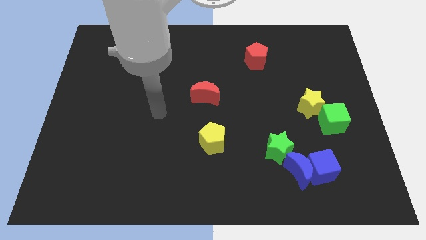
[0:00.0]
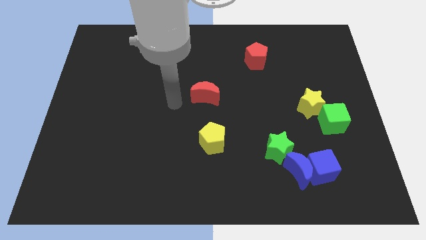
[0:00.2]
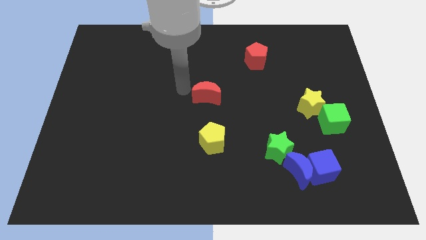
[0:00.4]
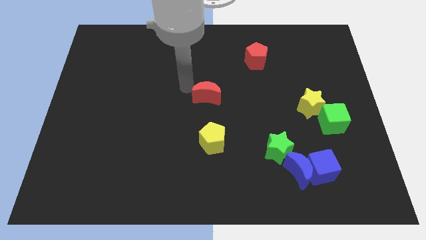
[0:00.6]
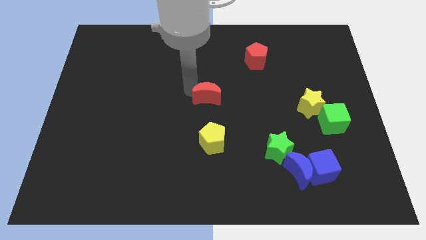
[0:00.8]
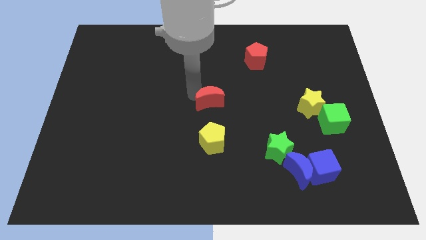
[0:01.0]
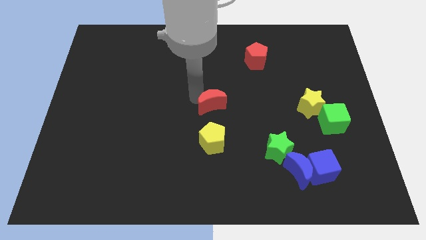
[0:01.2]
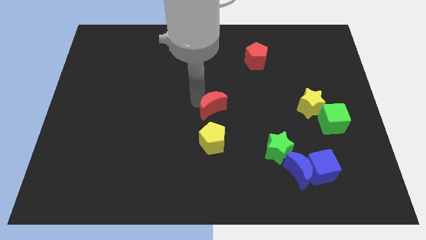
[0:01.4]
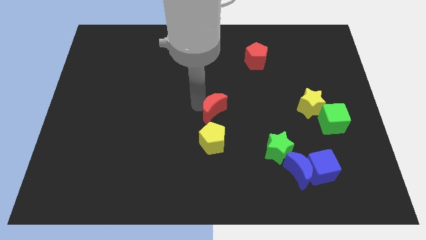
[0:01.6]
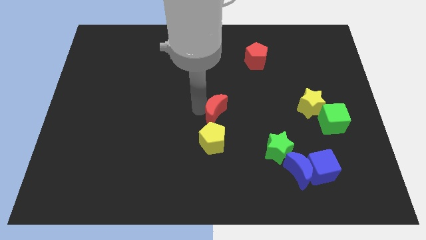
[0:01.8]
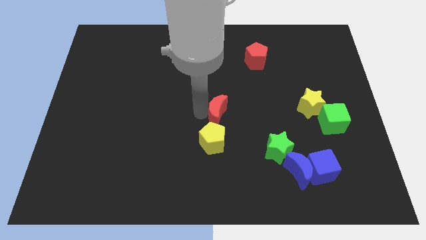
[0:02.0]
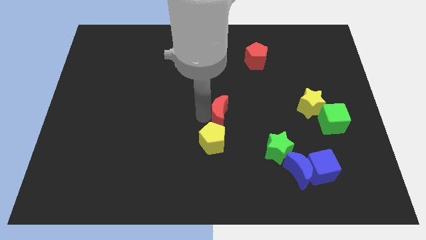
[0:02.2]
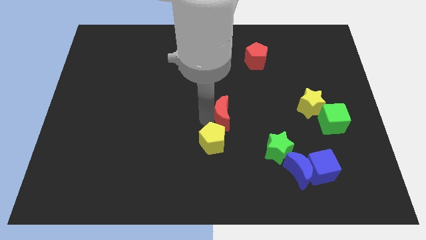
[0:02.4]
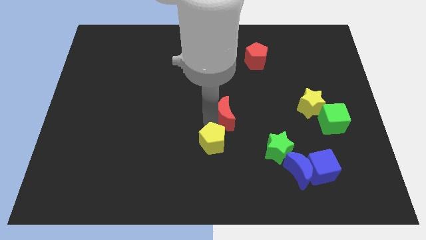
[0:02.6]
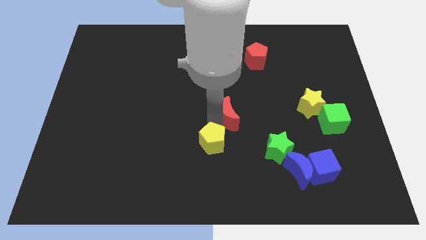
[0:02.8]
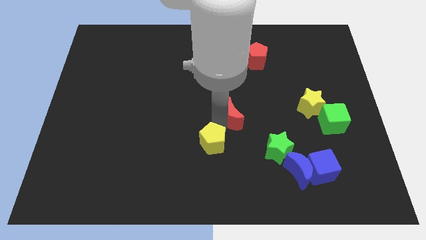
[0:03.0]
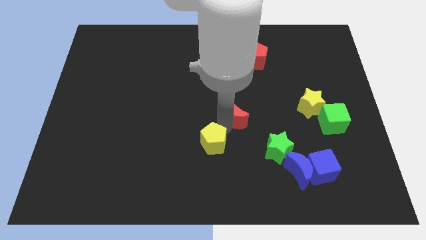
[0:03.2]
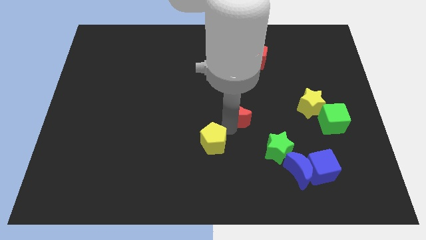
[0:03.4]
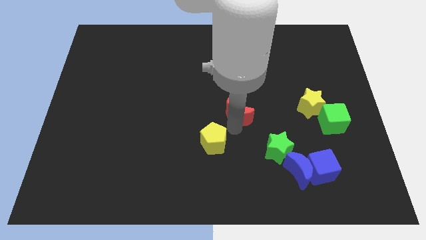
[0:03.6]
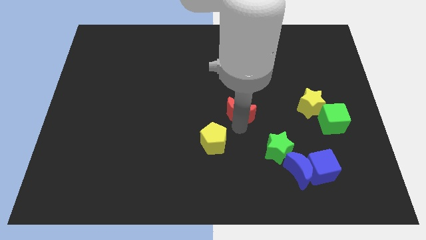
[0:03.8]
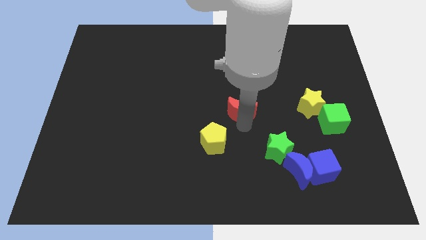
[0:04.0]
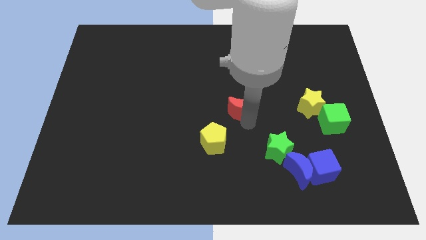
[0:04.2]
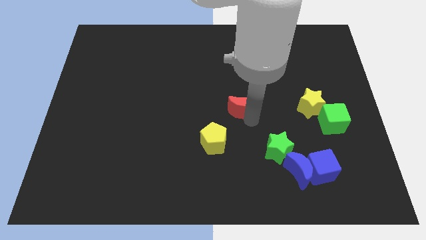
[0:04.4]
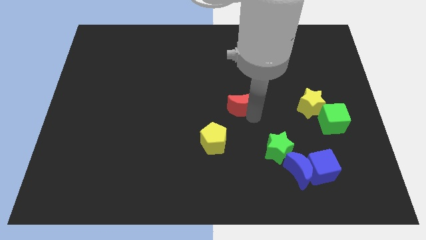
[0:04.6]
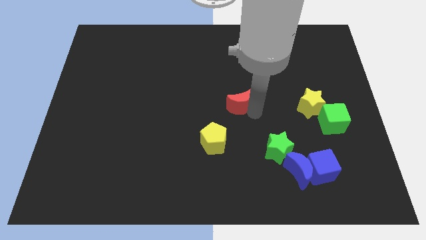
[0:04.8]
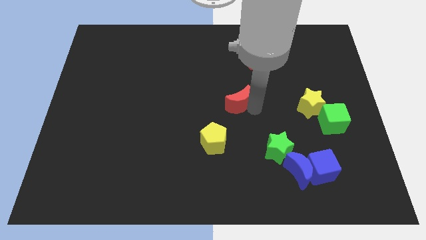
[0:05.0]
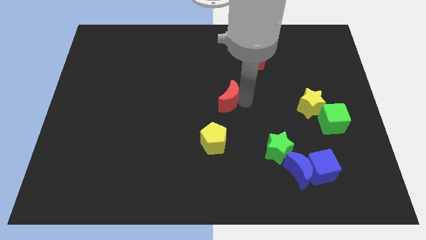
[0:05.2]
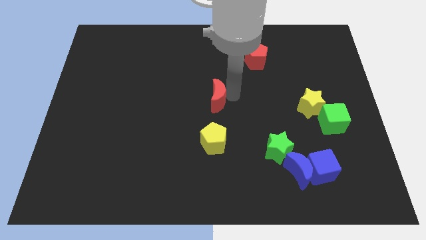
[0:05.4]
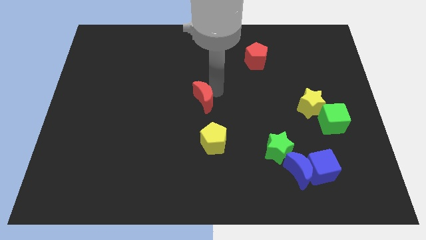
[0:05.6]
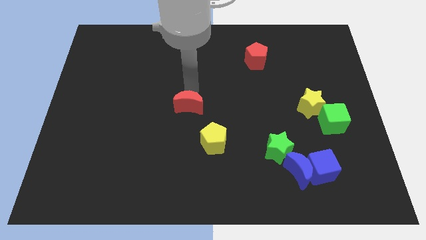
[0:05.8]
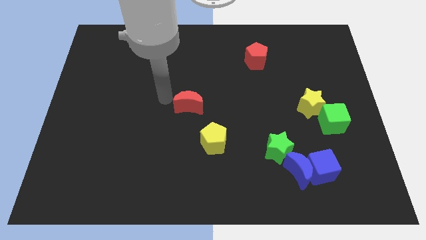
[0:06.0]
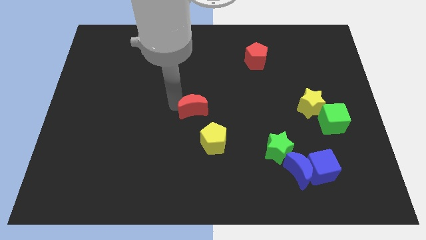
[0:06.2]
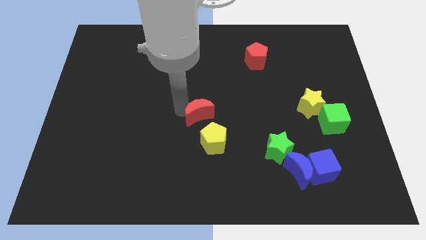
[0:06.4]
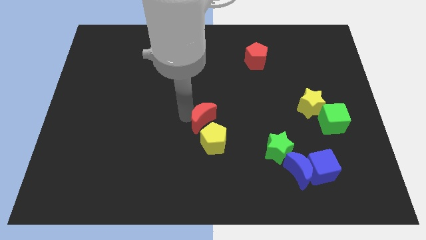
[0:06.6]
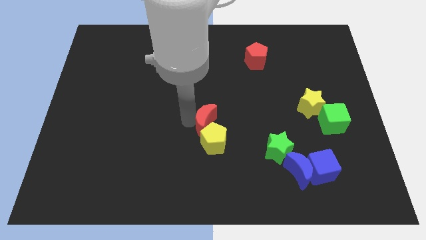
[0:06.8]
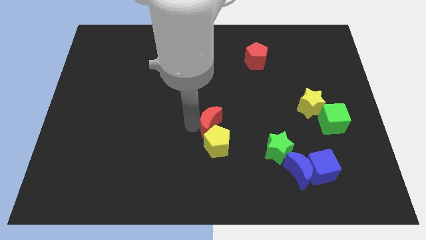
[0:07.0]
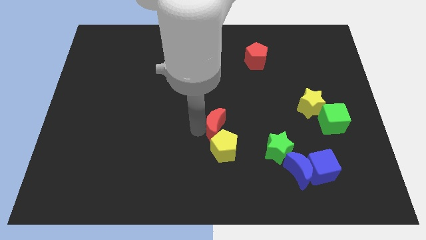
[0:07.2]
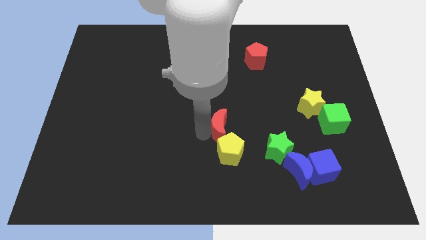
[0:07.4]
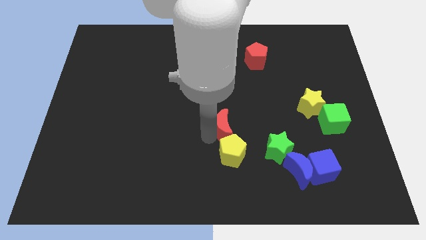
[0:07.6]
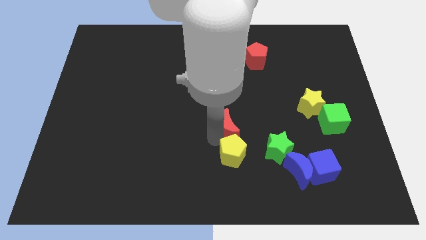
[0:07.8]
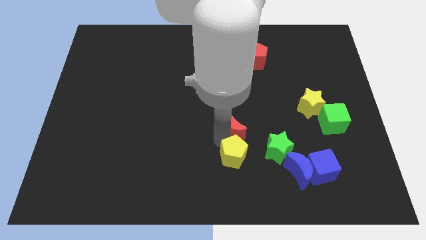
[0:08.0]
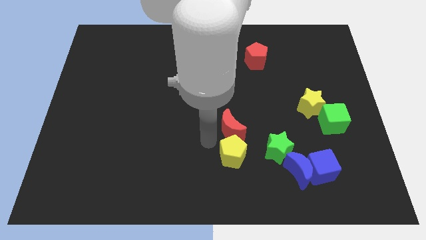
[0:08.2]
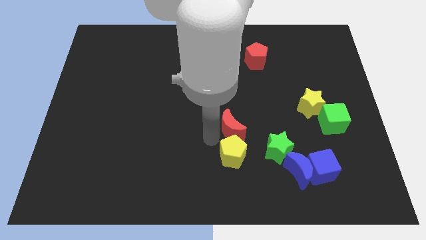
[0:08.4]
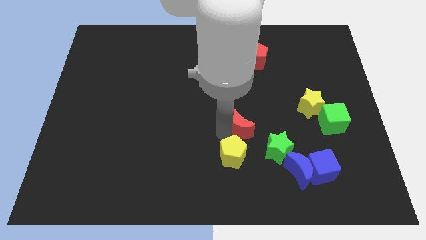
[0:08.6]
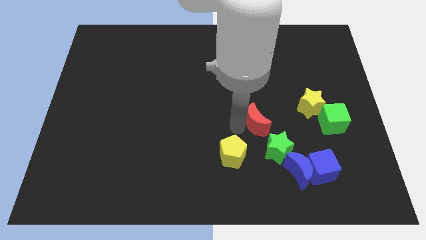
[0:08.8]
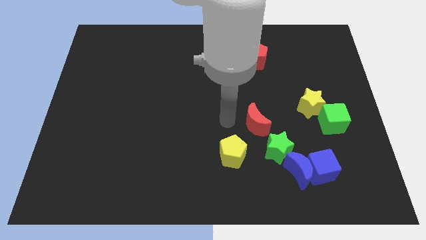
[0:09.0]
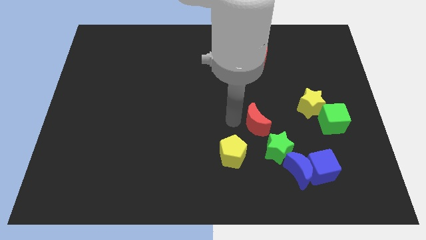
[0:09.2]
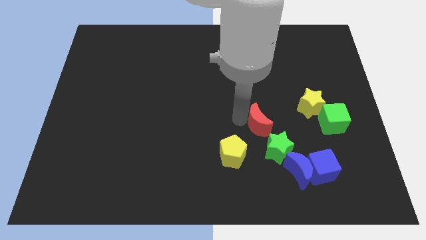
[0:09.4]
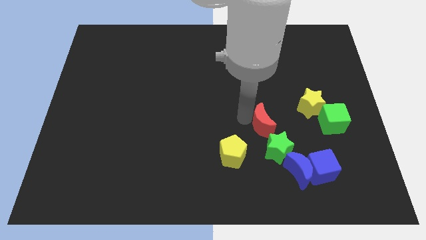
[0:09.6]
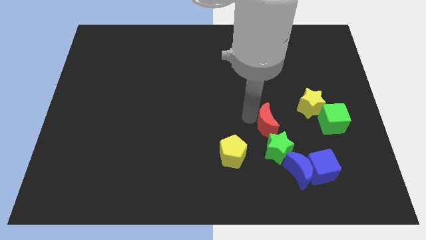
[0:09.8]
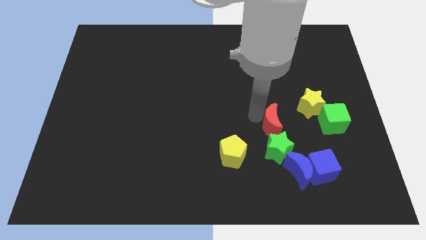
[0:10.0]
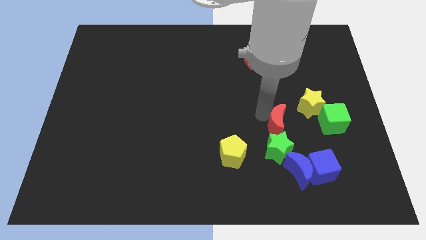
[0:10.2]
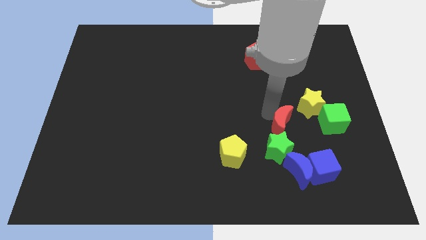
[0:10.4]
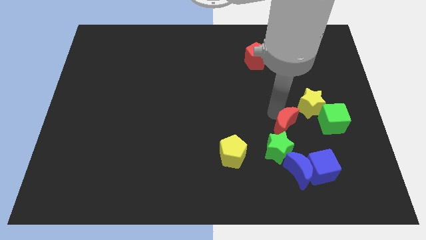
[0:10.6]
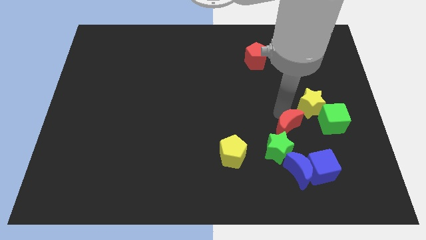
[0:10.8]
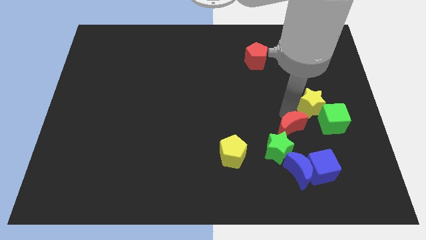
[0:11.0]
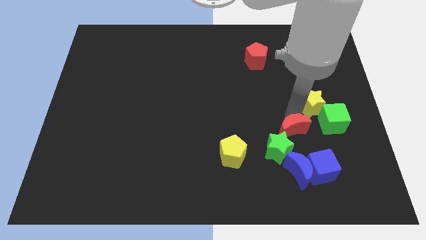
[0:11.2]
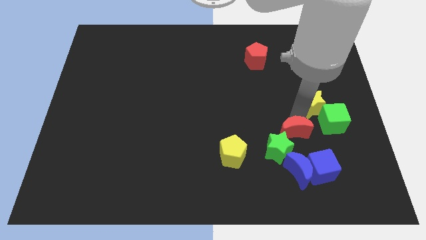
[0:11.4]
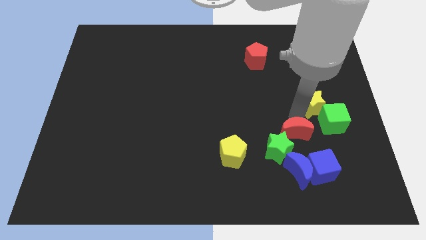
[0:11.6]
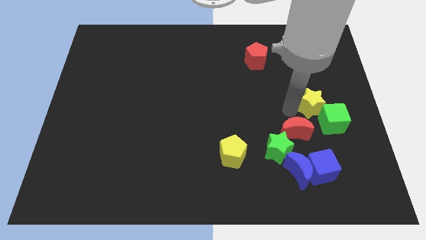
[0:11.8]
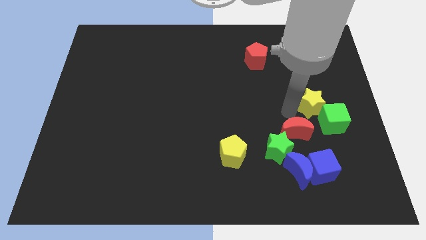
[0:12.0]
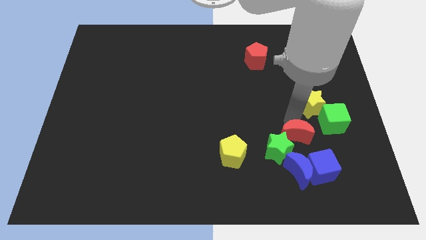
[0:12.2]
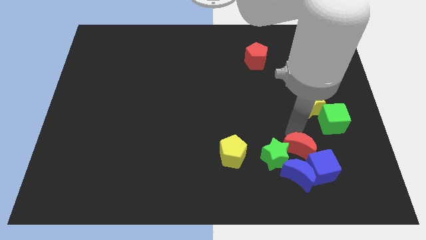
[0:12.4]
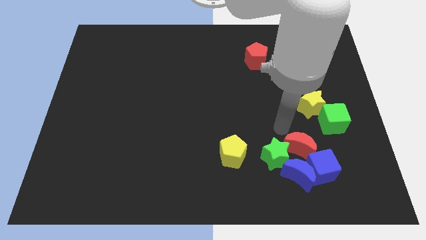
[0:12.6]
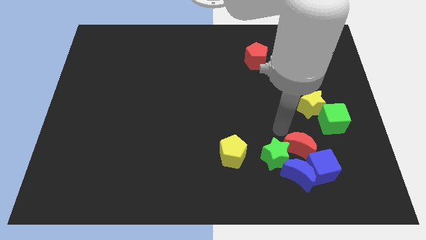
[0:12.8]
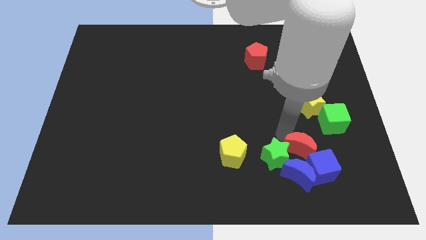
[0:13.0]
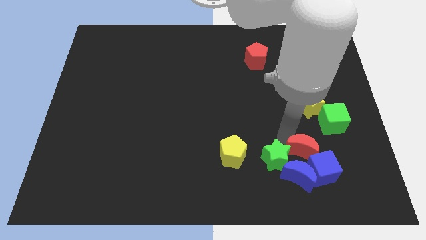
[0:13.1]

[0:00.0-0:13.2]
put the red moon to the blue cube

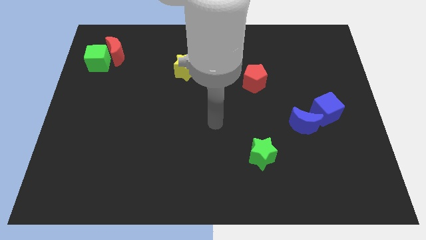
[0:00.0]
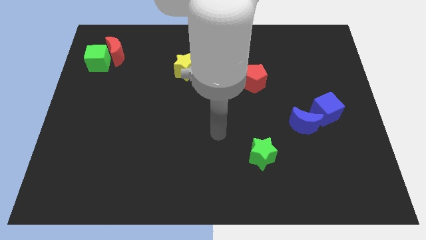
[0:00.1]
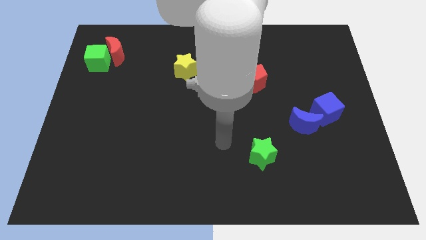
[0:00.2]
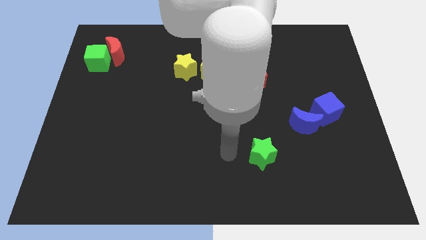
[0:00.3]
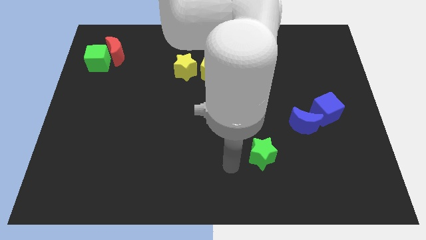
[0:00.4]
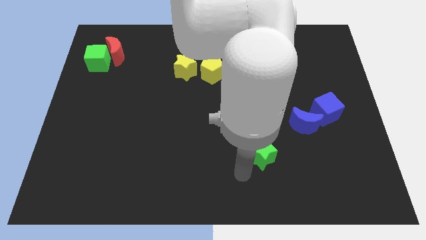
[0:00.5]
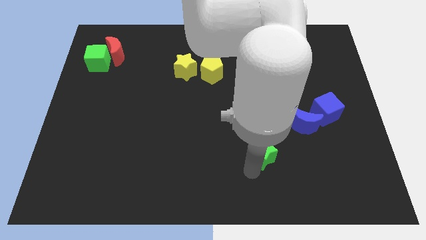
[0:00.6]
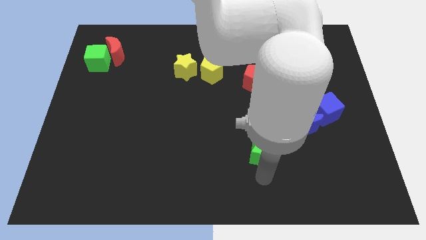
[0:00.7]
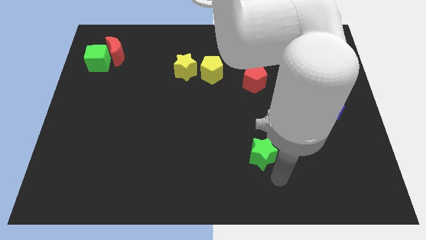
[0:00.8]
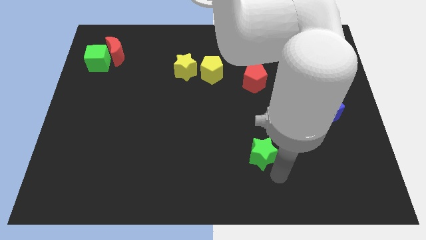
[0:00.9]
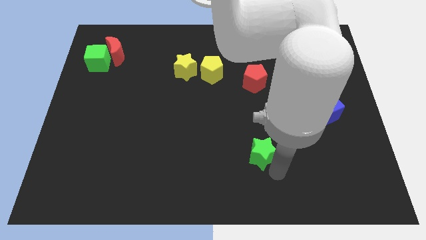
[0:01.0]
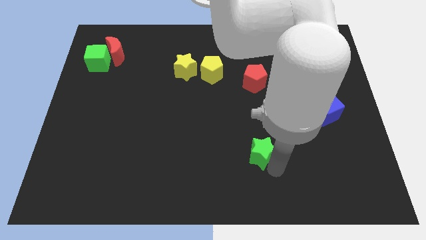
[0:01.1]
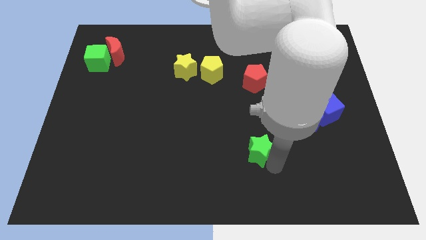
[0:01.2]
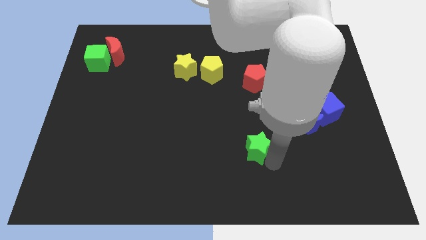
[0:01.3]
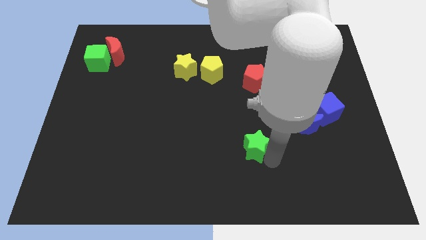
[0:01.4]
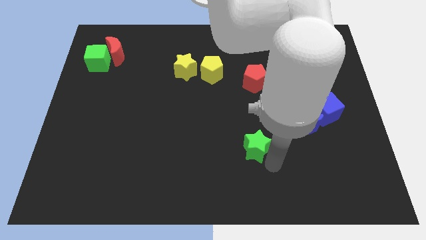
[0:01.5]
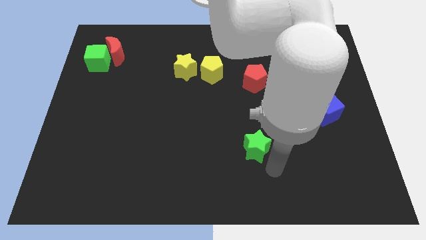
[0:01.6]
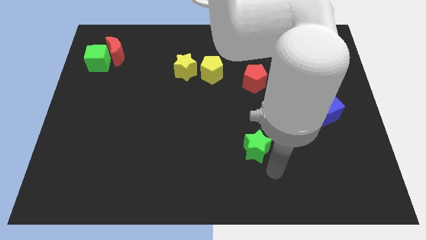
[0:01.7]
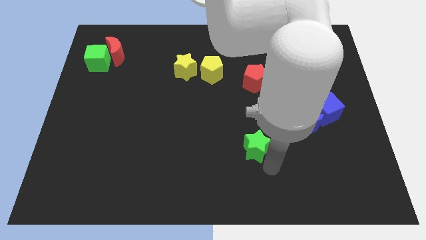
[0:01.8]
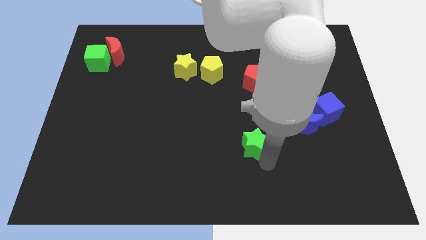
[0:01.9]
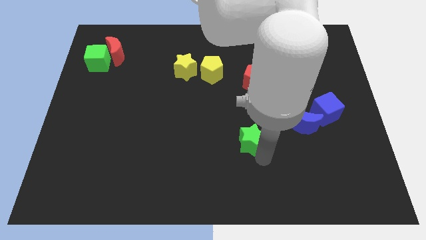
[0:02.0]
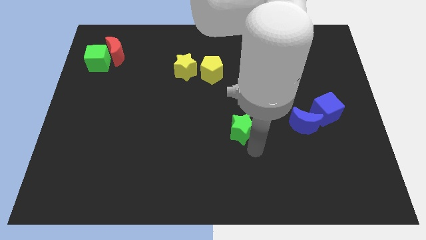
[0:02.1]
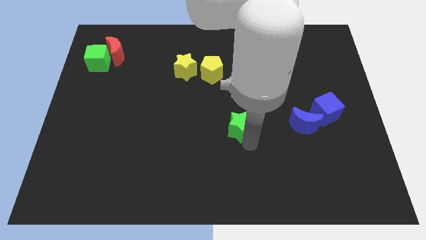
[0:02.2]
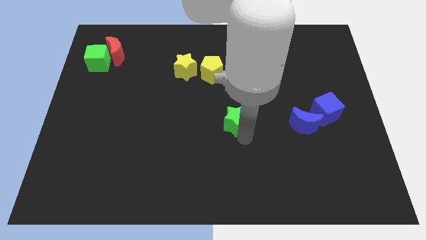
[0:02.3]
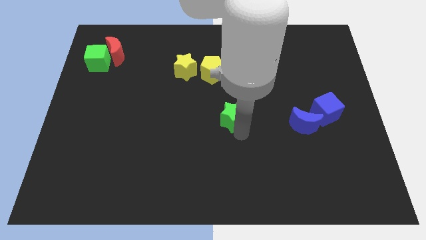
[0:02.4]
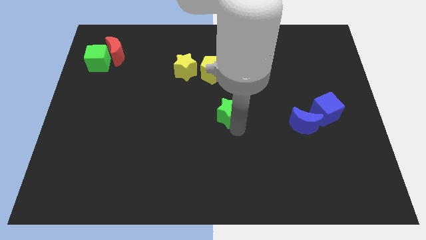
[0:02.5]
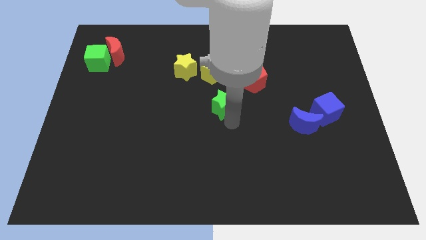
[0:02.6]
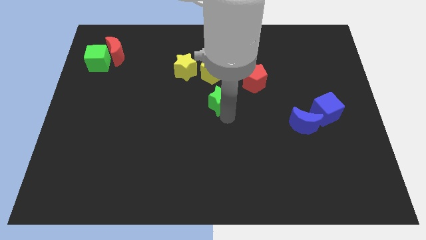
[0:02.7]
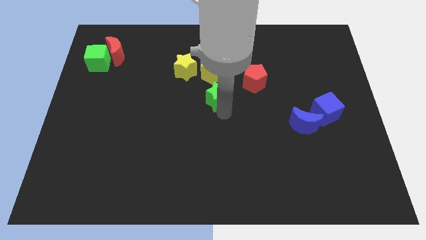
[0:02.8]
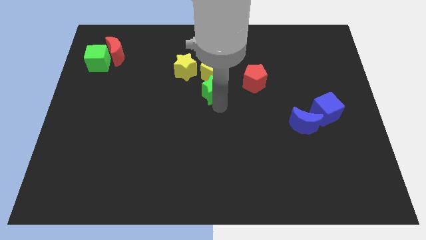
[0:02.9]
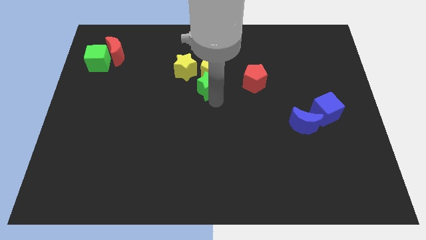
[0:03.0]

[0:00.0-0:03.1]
slide the green star close to the yellow pentagon
